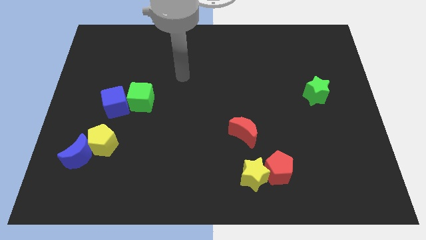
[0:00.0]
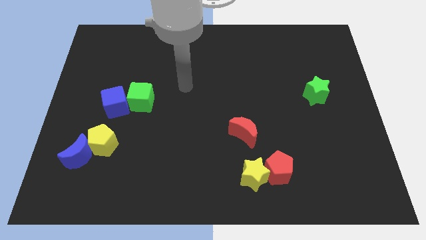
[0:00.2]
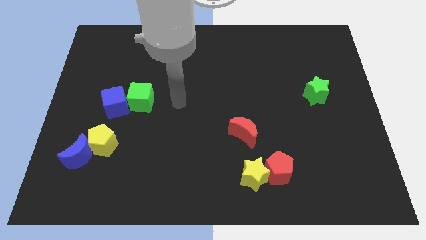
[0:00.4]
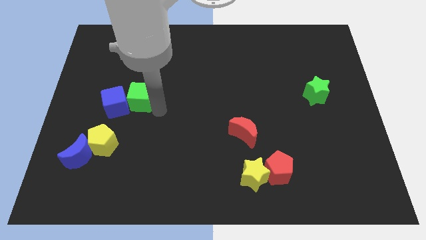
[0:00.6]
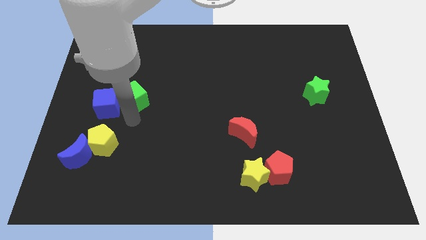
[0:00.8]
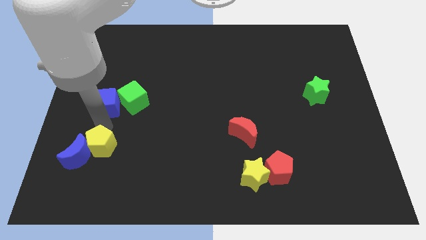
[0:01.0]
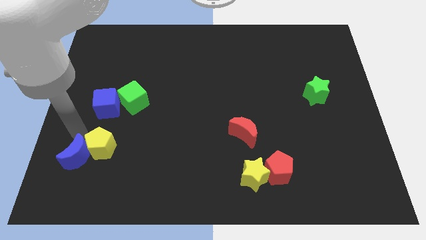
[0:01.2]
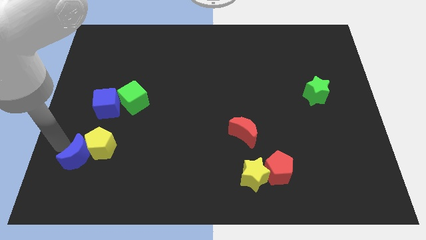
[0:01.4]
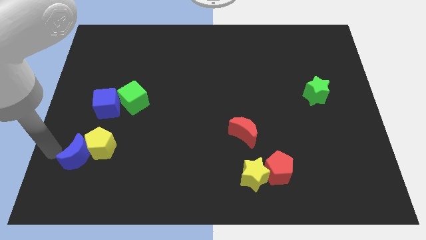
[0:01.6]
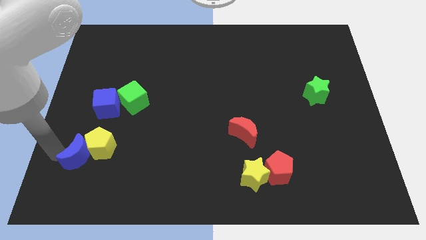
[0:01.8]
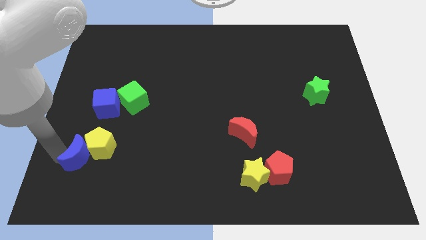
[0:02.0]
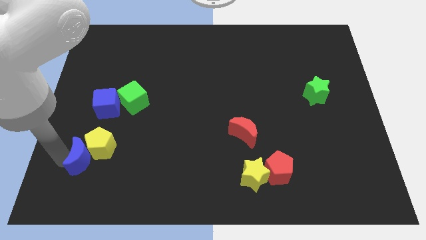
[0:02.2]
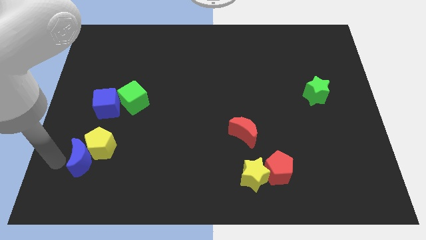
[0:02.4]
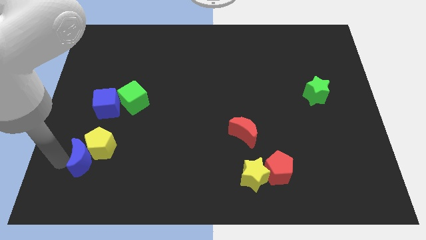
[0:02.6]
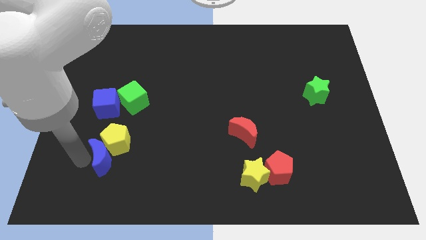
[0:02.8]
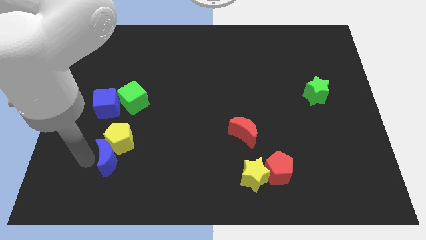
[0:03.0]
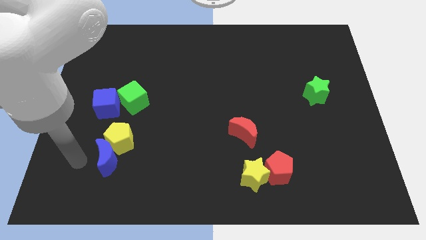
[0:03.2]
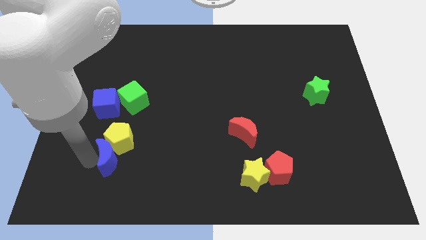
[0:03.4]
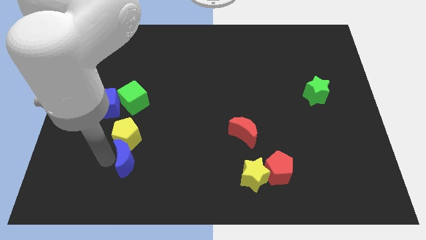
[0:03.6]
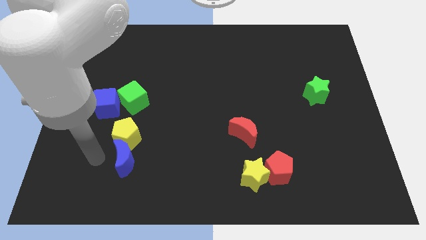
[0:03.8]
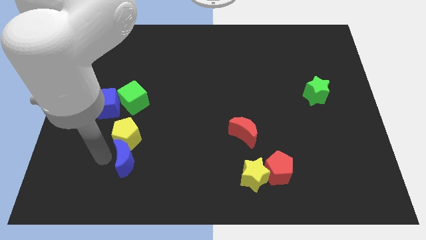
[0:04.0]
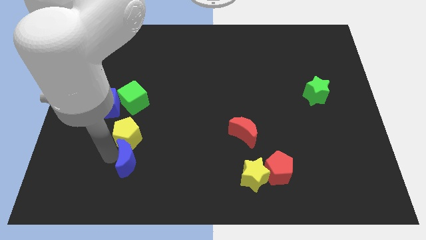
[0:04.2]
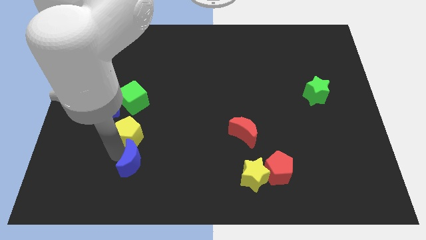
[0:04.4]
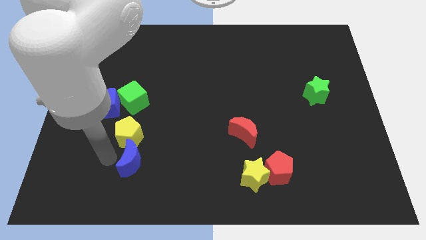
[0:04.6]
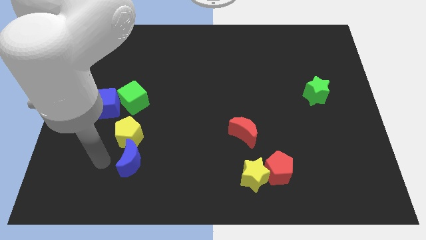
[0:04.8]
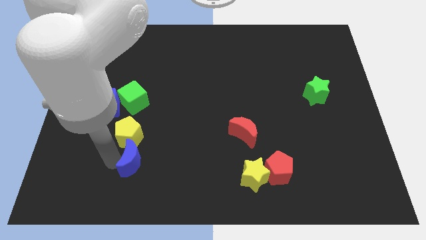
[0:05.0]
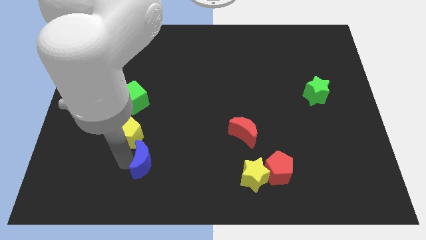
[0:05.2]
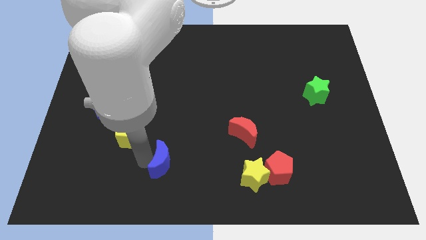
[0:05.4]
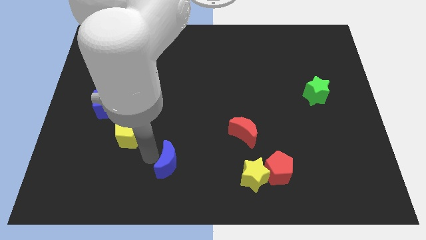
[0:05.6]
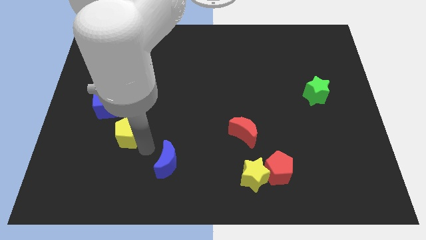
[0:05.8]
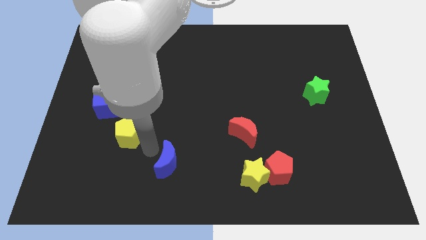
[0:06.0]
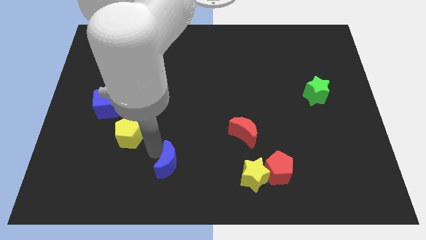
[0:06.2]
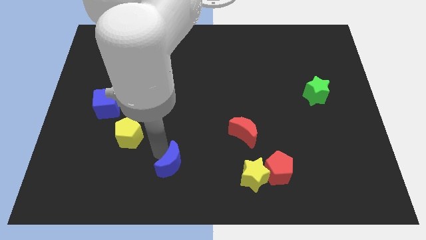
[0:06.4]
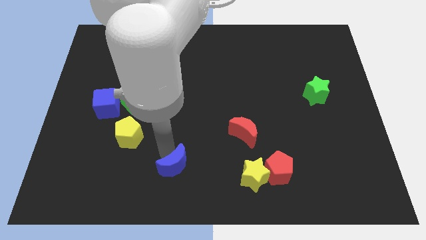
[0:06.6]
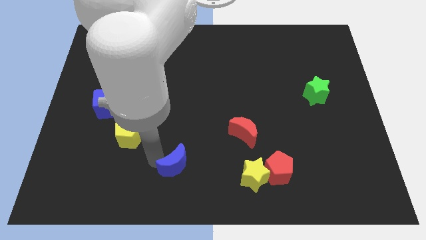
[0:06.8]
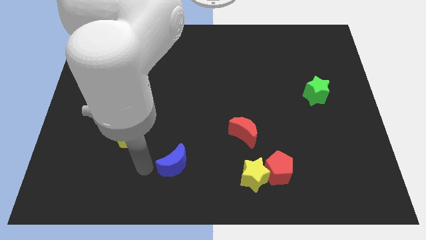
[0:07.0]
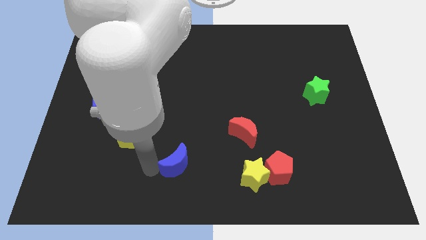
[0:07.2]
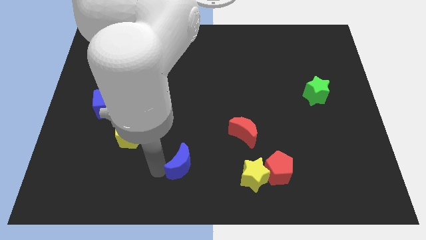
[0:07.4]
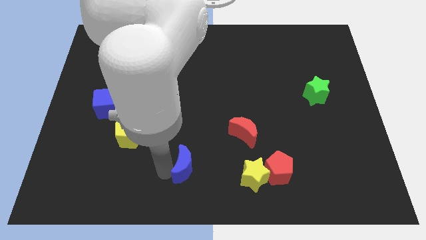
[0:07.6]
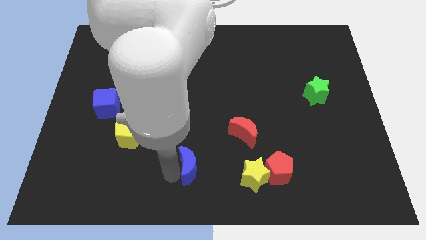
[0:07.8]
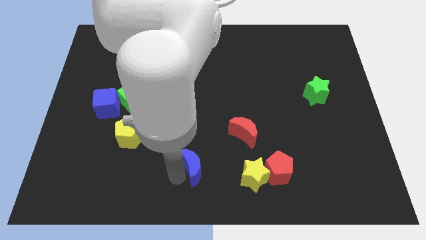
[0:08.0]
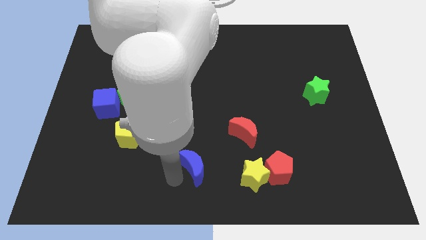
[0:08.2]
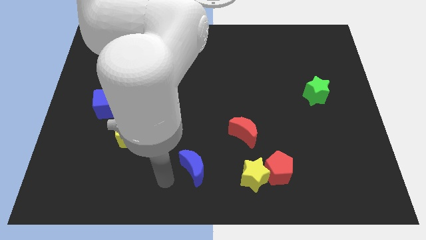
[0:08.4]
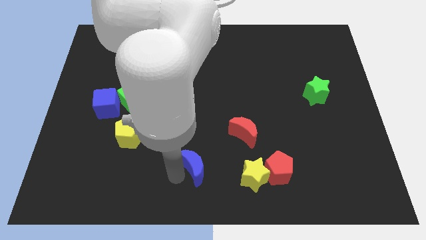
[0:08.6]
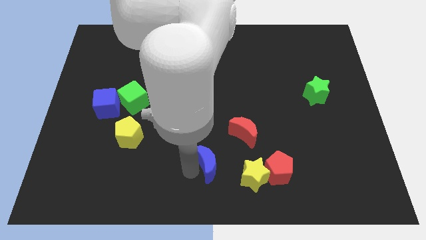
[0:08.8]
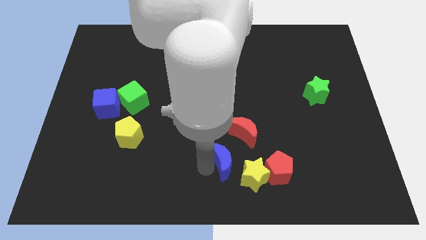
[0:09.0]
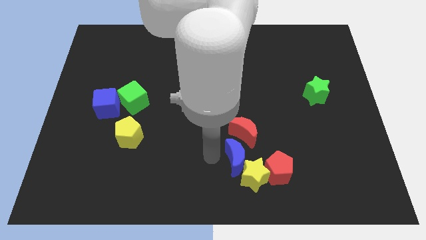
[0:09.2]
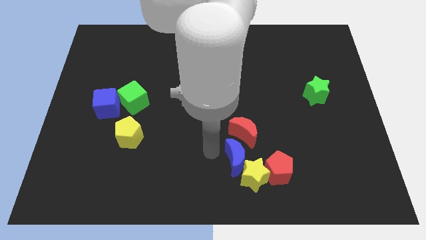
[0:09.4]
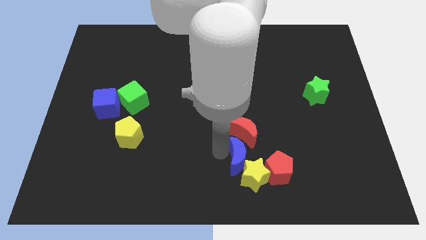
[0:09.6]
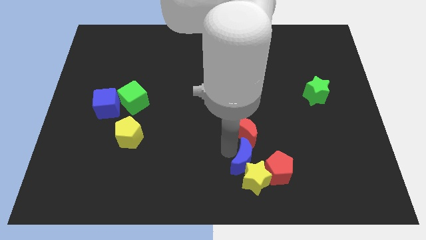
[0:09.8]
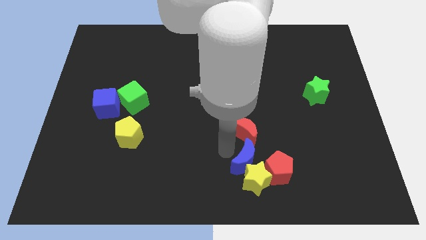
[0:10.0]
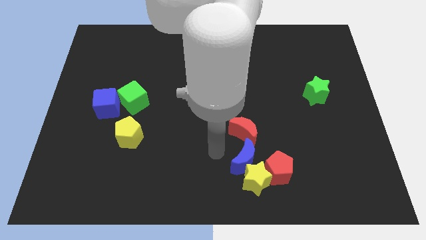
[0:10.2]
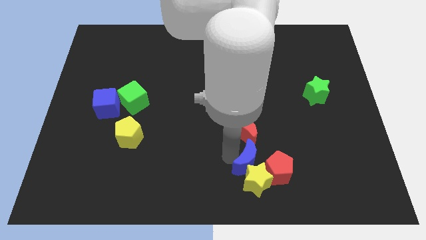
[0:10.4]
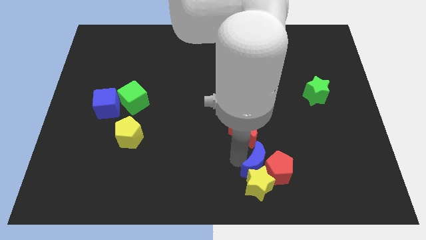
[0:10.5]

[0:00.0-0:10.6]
slide the blue moon close to the red pentagon

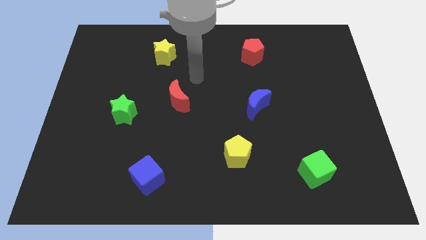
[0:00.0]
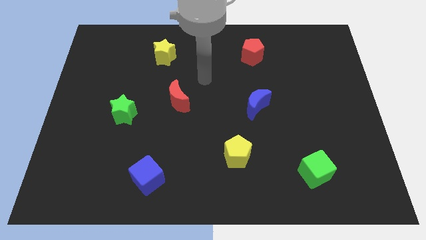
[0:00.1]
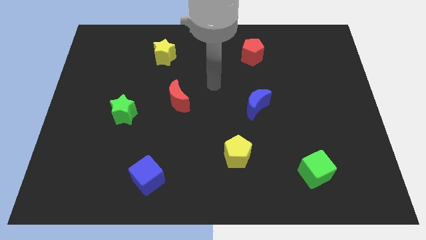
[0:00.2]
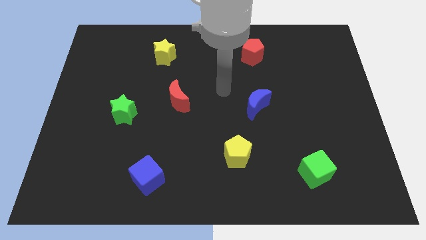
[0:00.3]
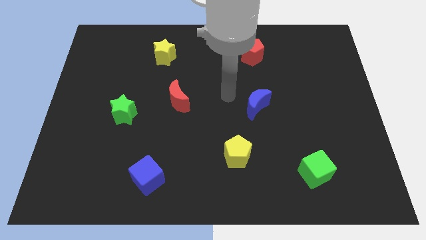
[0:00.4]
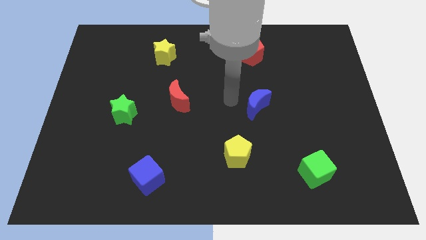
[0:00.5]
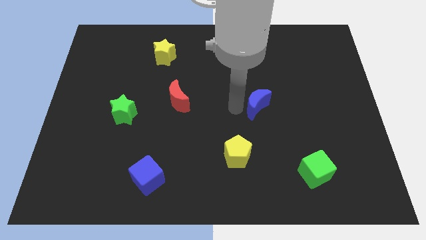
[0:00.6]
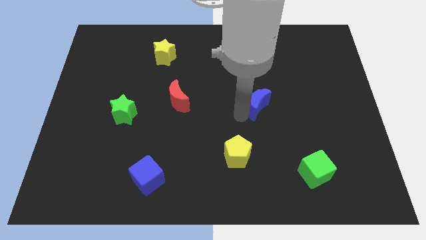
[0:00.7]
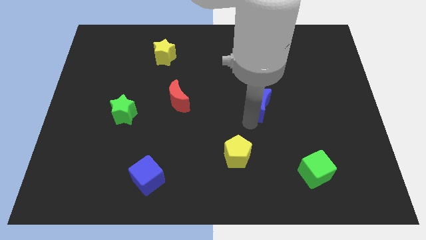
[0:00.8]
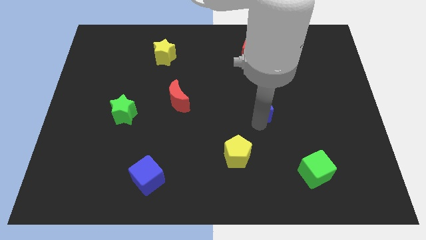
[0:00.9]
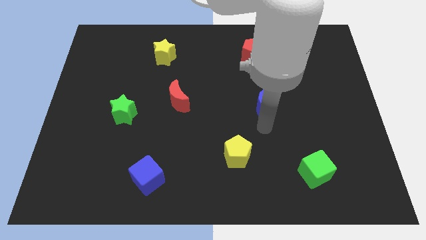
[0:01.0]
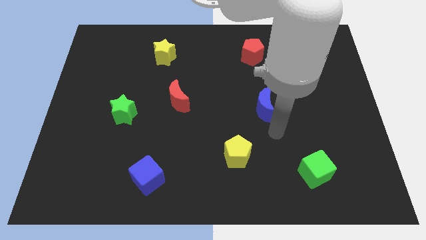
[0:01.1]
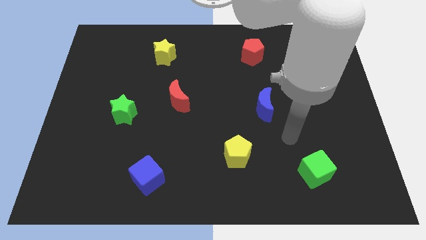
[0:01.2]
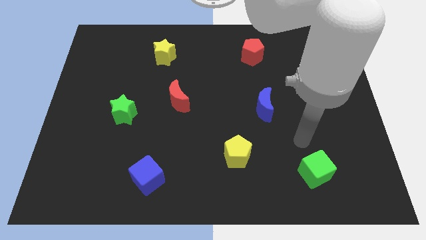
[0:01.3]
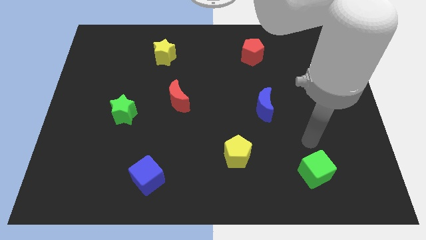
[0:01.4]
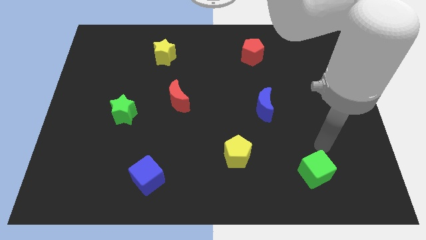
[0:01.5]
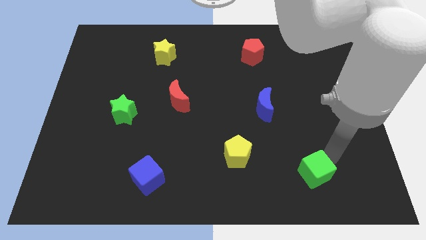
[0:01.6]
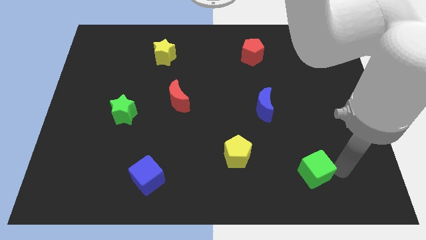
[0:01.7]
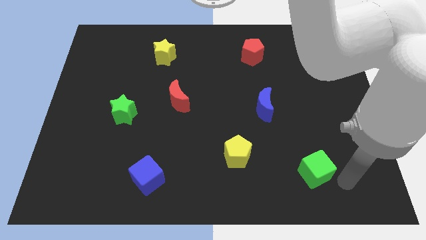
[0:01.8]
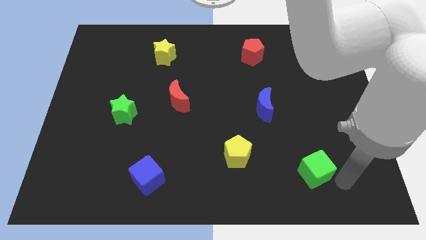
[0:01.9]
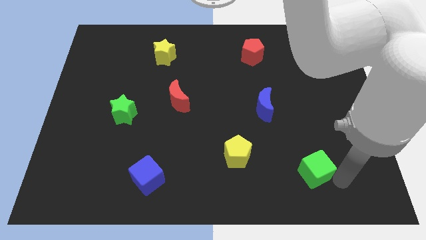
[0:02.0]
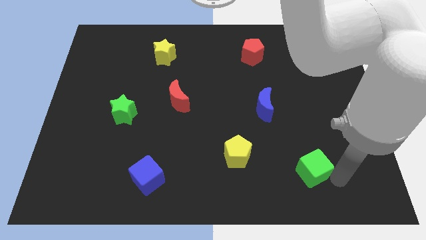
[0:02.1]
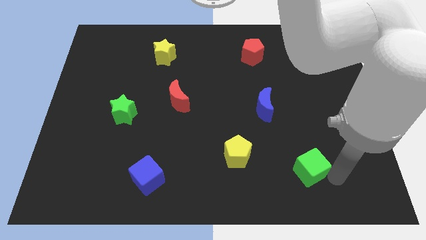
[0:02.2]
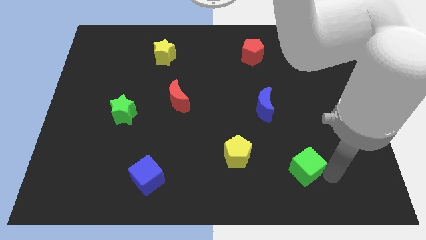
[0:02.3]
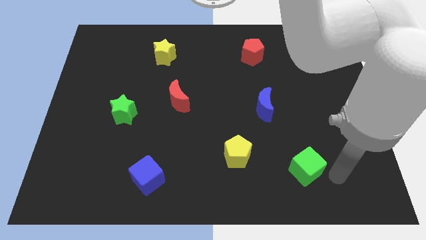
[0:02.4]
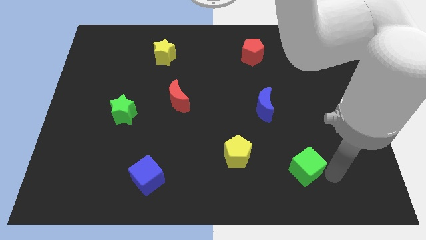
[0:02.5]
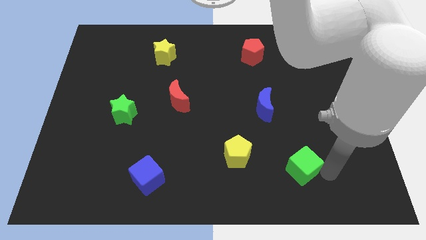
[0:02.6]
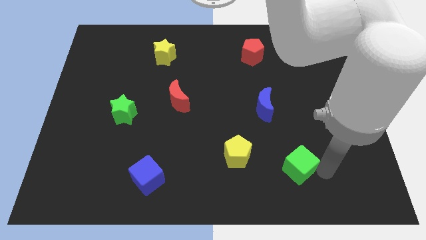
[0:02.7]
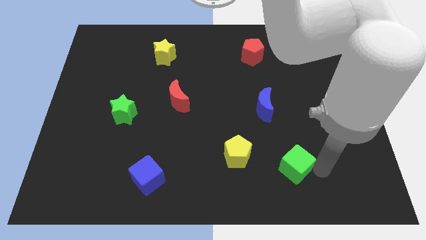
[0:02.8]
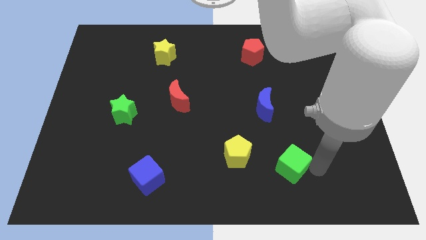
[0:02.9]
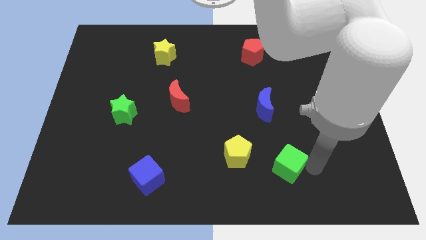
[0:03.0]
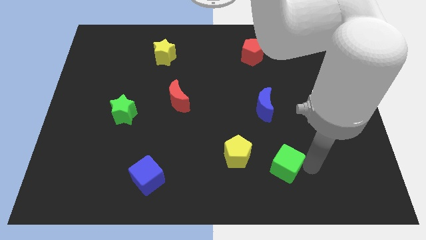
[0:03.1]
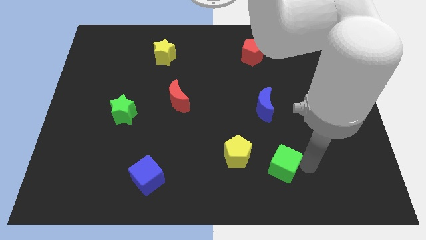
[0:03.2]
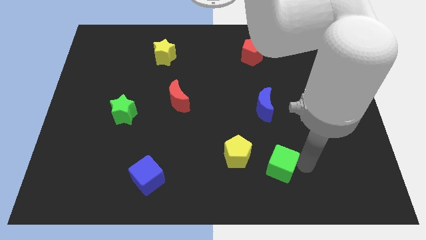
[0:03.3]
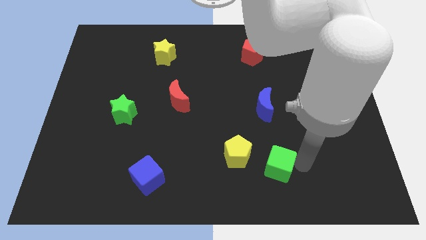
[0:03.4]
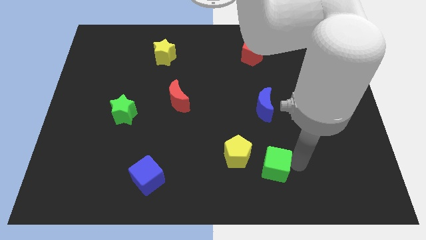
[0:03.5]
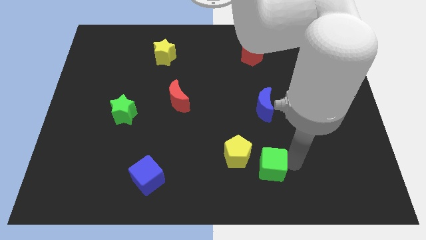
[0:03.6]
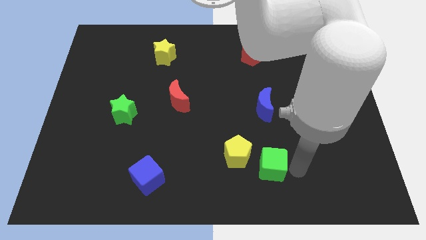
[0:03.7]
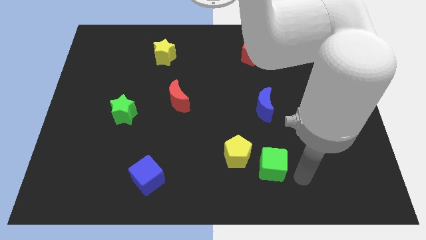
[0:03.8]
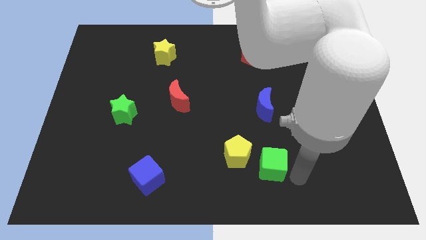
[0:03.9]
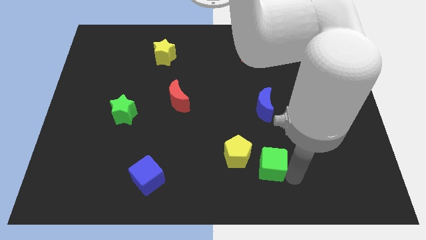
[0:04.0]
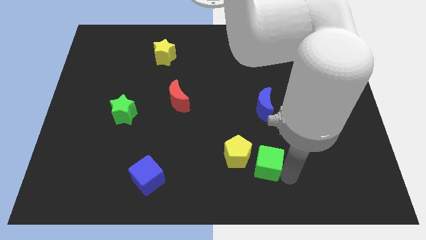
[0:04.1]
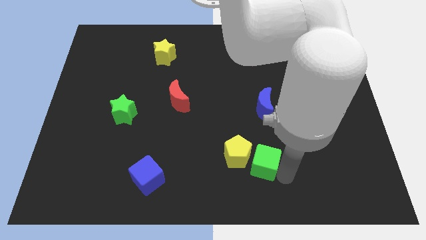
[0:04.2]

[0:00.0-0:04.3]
put the green cube towards the yellow pentagon
